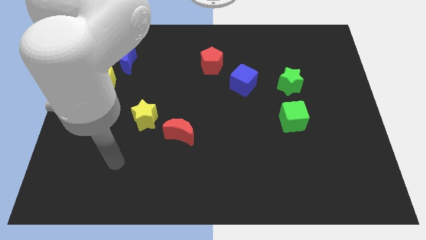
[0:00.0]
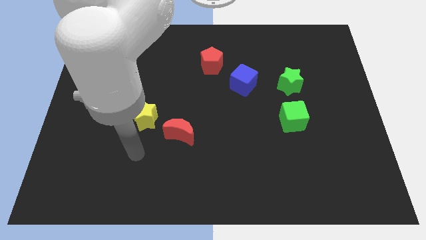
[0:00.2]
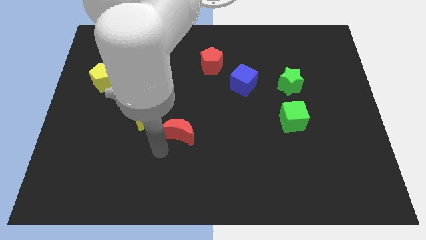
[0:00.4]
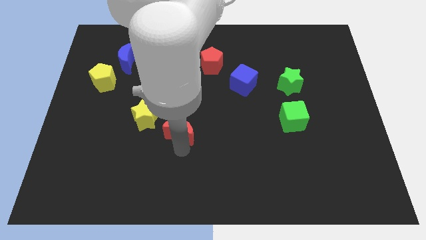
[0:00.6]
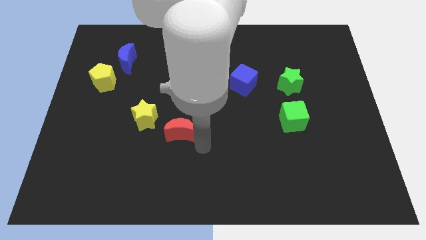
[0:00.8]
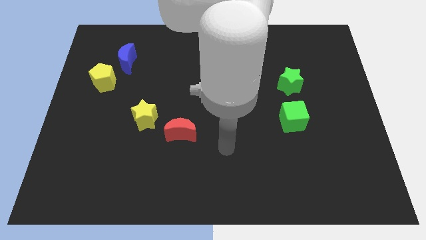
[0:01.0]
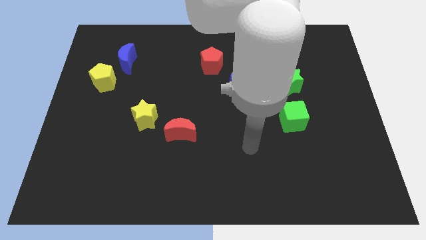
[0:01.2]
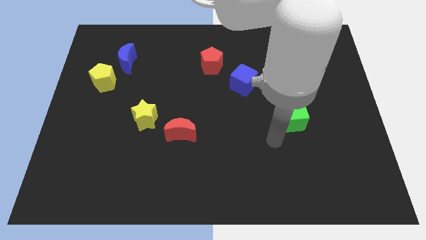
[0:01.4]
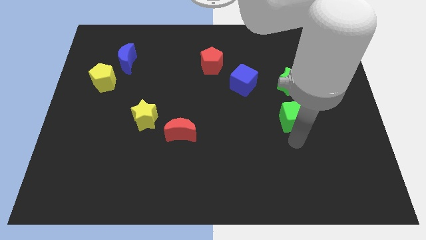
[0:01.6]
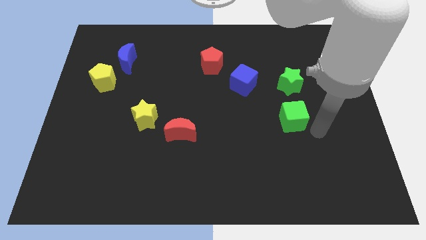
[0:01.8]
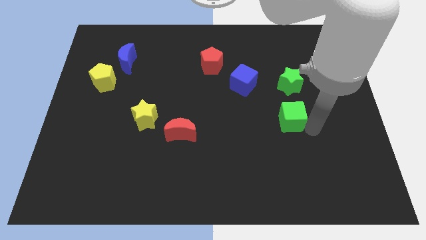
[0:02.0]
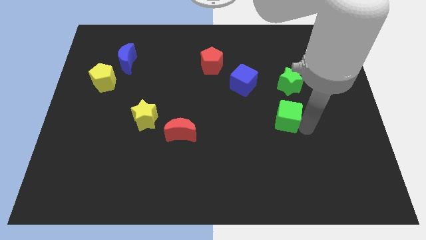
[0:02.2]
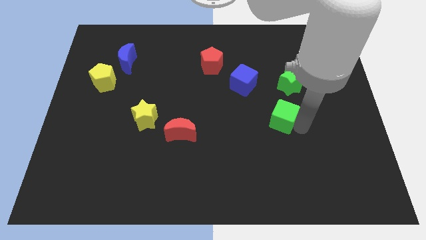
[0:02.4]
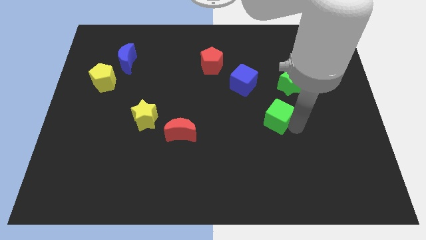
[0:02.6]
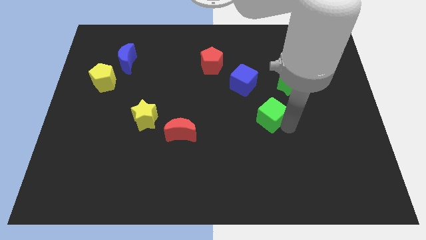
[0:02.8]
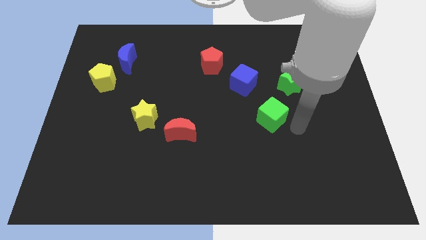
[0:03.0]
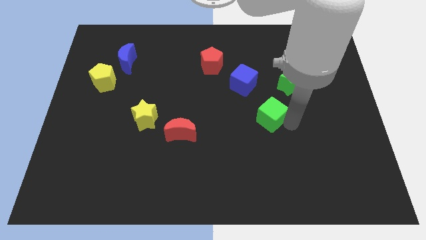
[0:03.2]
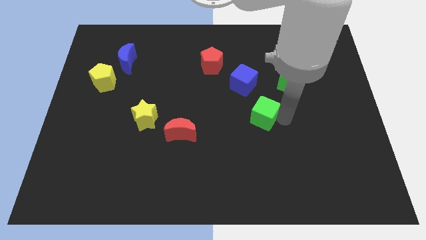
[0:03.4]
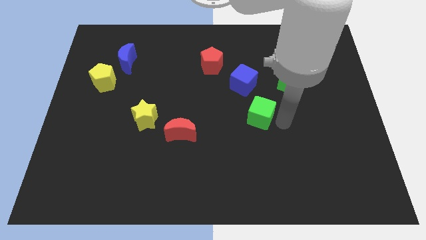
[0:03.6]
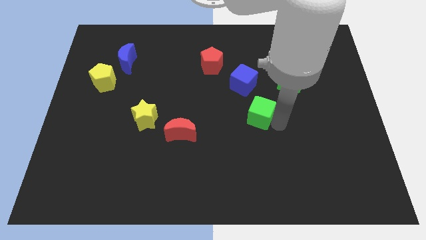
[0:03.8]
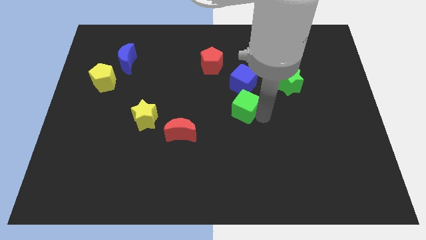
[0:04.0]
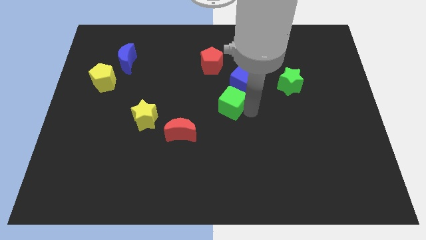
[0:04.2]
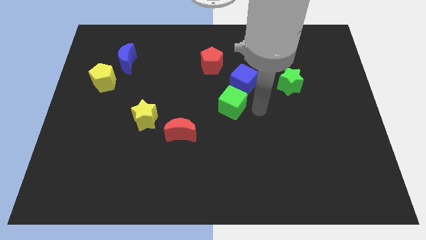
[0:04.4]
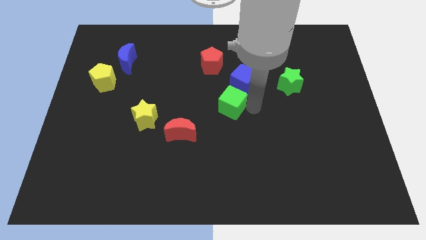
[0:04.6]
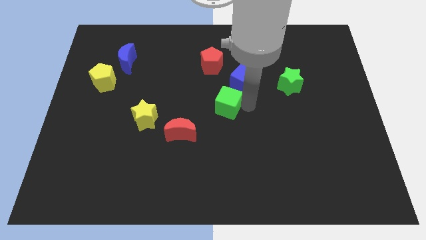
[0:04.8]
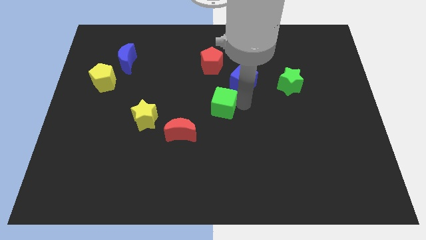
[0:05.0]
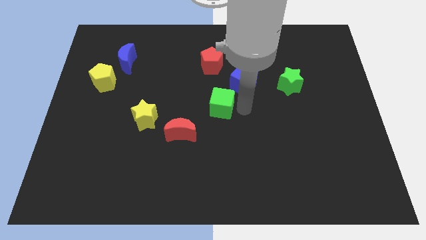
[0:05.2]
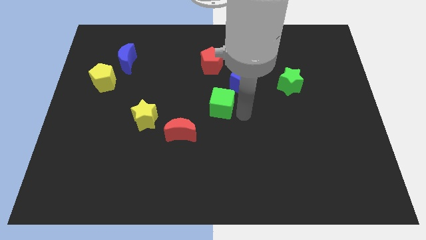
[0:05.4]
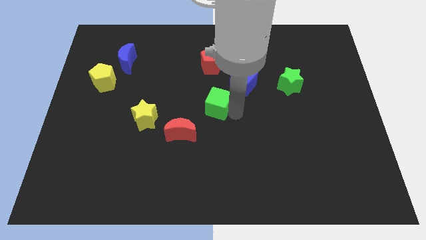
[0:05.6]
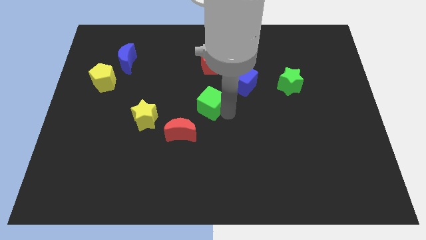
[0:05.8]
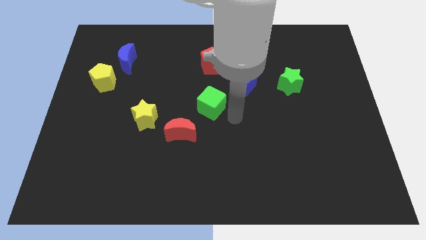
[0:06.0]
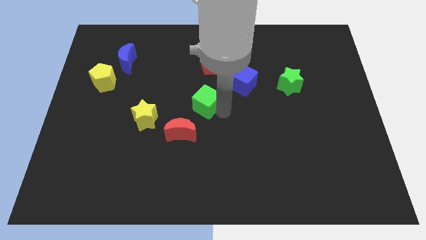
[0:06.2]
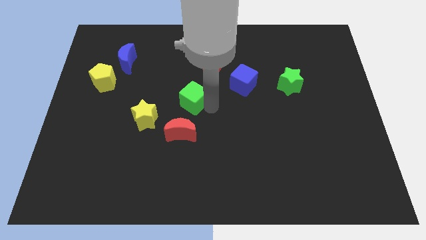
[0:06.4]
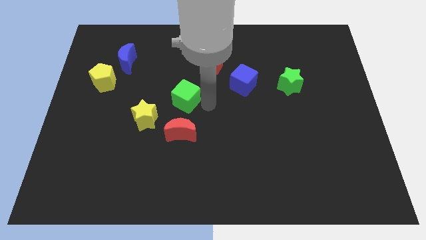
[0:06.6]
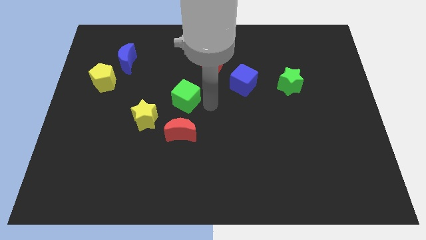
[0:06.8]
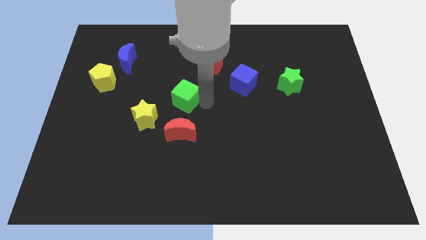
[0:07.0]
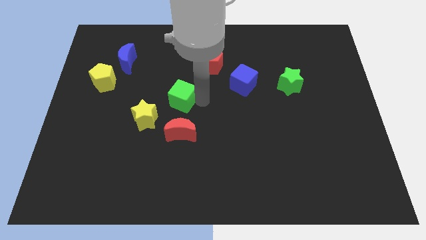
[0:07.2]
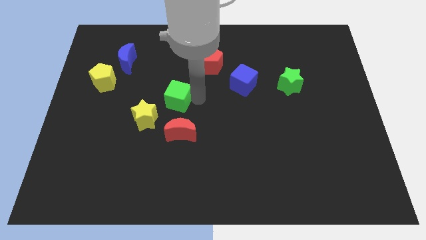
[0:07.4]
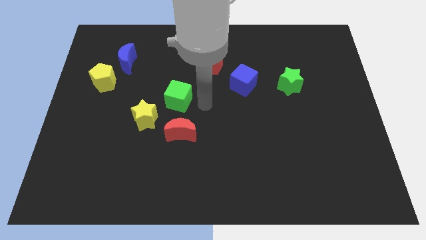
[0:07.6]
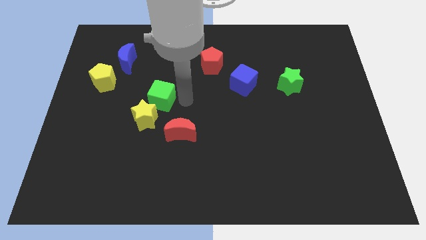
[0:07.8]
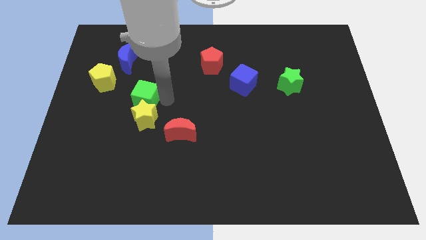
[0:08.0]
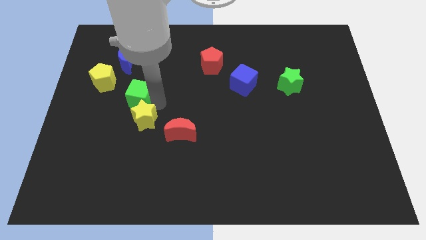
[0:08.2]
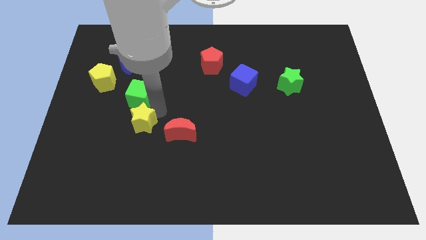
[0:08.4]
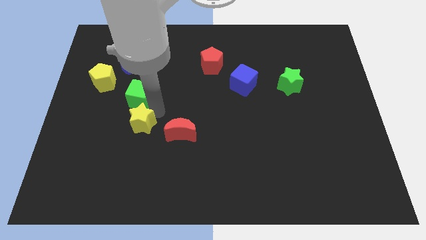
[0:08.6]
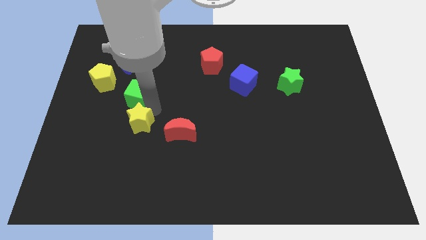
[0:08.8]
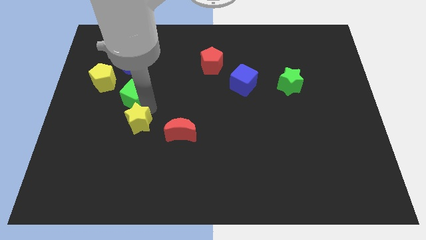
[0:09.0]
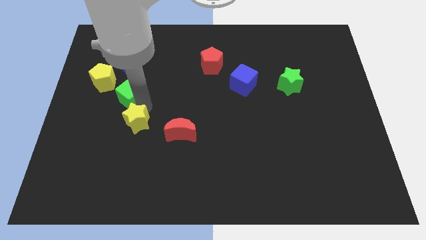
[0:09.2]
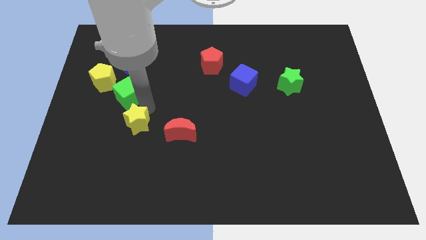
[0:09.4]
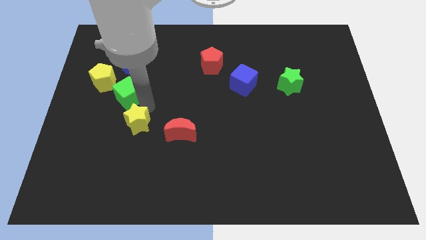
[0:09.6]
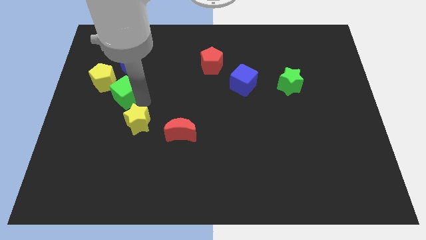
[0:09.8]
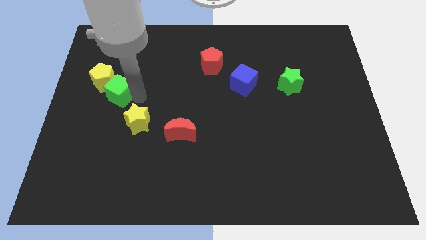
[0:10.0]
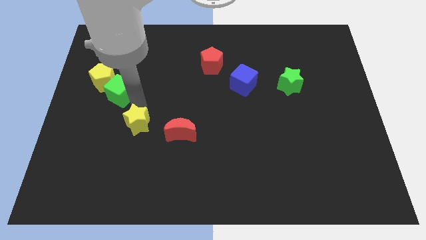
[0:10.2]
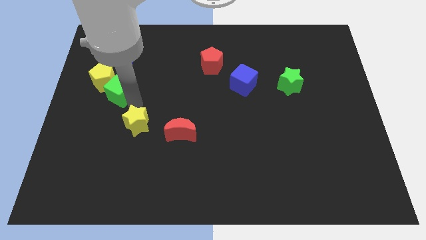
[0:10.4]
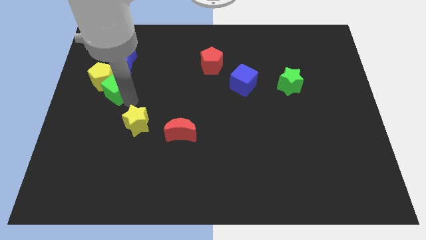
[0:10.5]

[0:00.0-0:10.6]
put the green cube towards the yellow pentagon

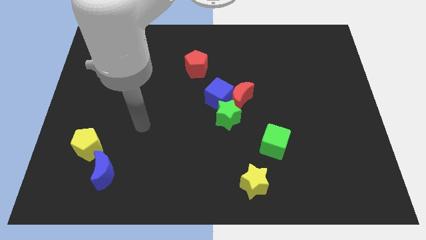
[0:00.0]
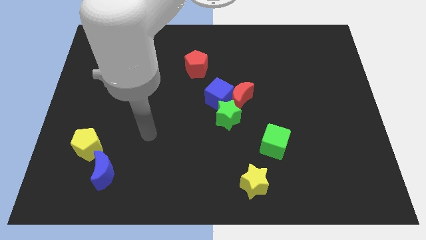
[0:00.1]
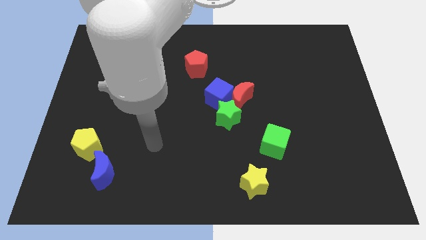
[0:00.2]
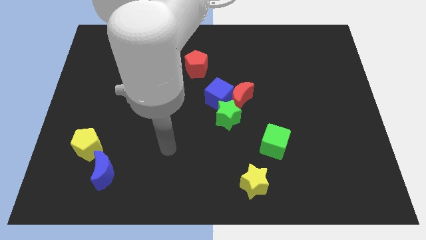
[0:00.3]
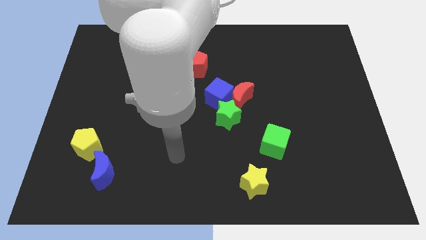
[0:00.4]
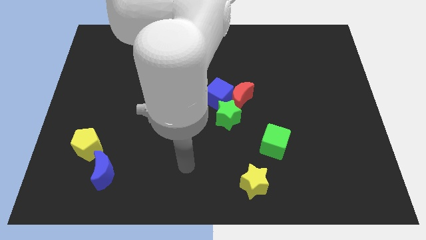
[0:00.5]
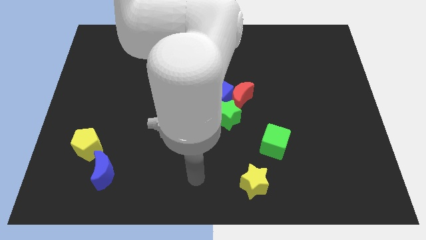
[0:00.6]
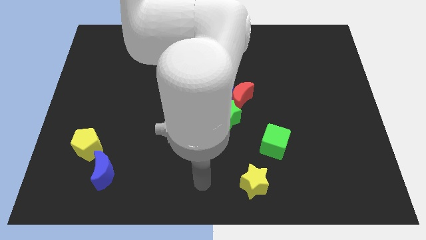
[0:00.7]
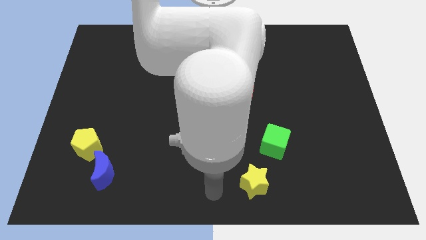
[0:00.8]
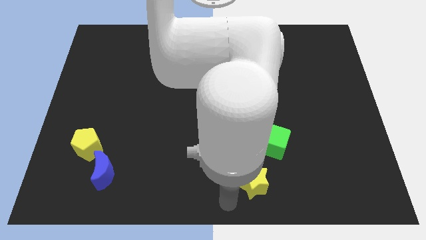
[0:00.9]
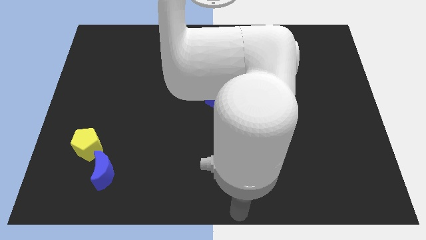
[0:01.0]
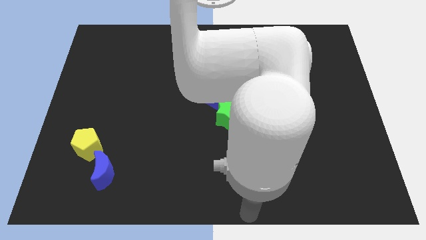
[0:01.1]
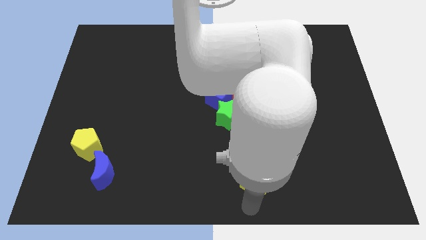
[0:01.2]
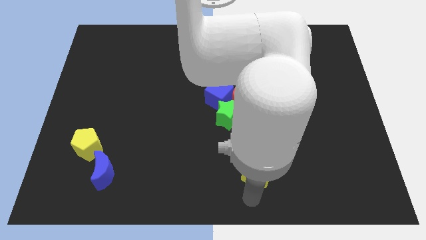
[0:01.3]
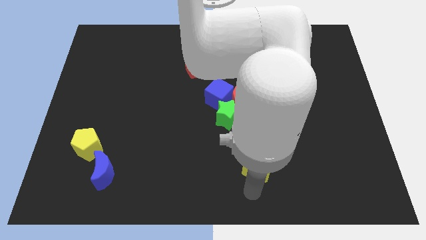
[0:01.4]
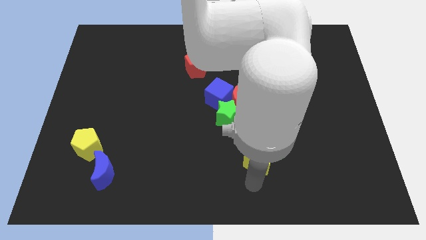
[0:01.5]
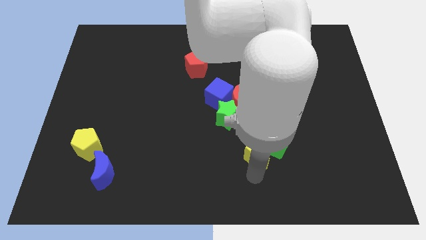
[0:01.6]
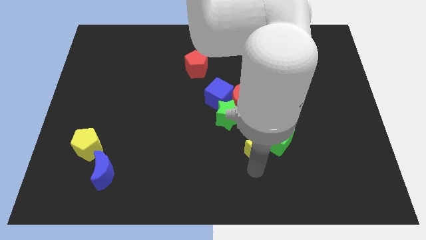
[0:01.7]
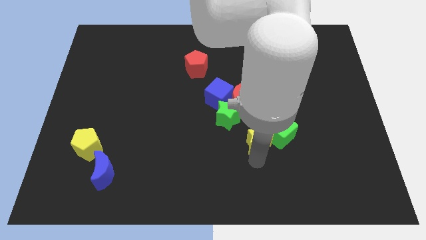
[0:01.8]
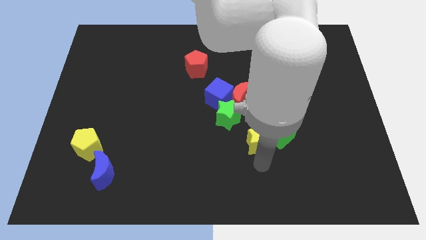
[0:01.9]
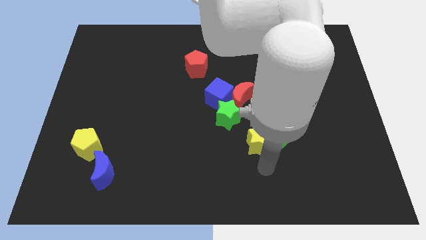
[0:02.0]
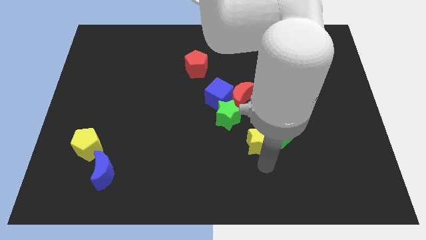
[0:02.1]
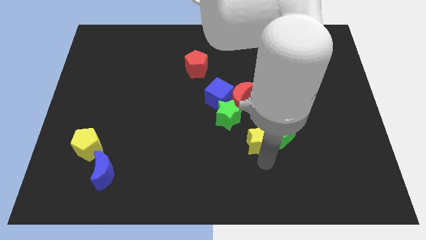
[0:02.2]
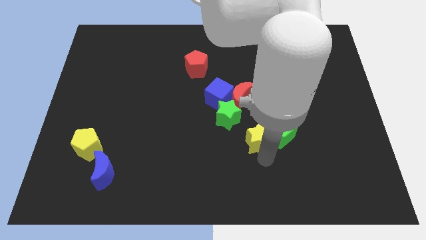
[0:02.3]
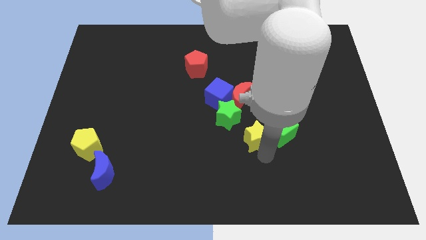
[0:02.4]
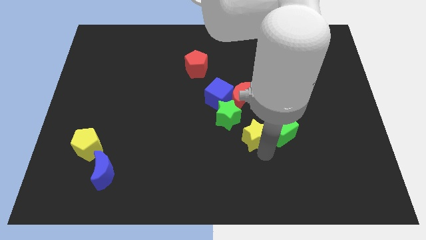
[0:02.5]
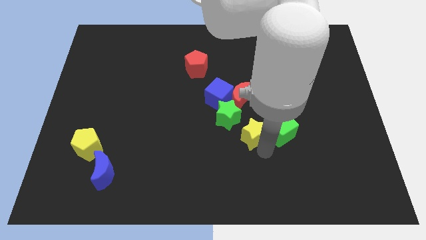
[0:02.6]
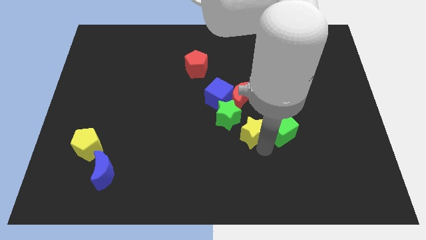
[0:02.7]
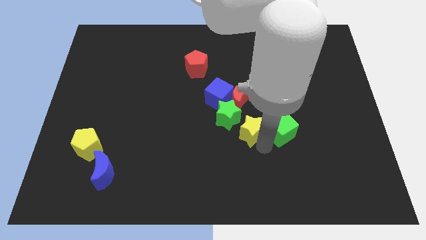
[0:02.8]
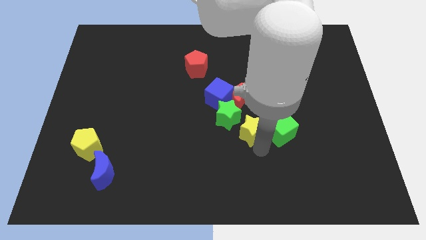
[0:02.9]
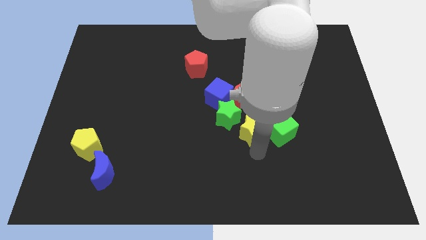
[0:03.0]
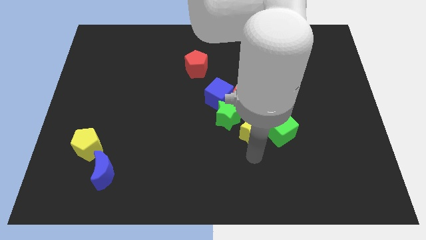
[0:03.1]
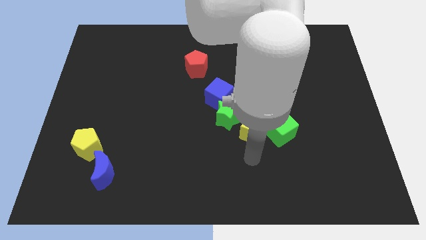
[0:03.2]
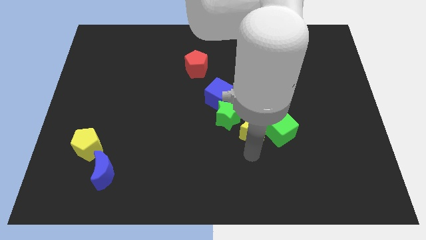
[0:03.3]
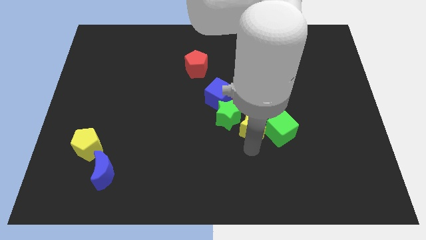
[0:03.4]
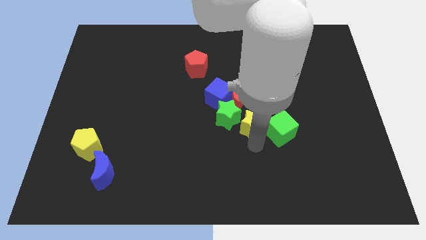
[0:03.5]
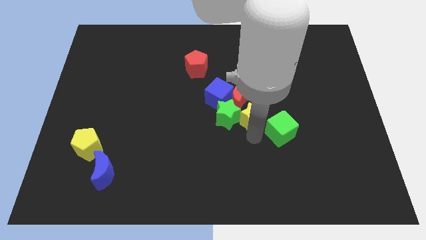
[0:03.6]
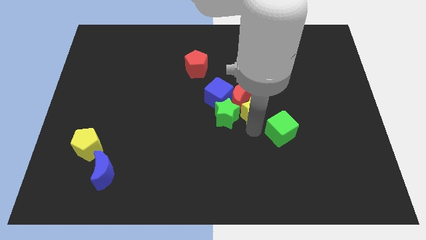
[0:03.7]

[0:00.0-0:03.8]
put the yellow star to the red moon
